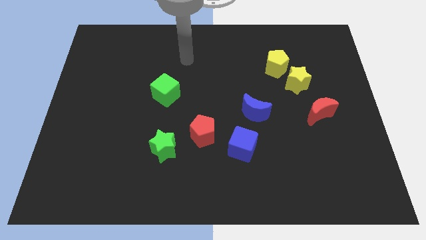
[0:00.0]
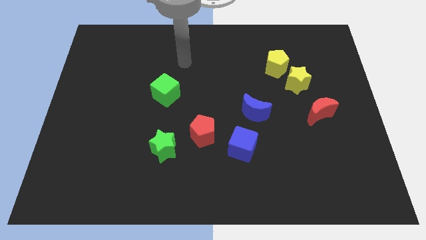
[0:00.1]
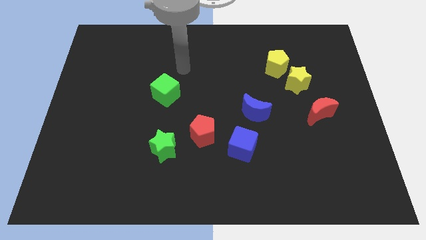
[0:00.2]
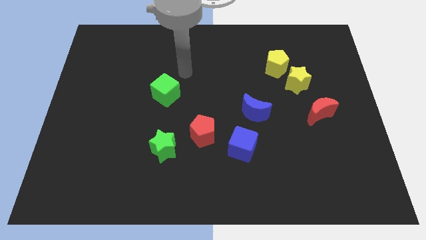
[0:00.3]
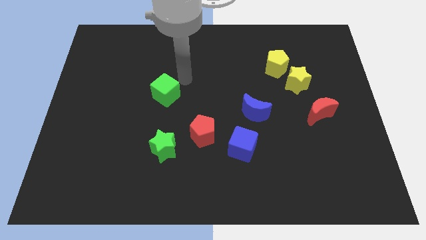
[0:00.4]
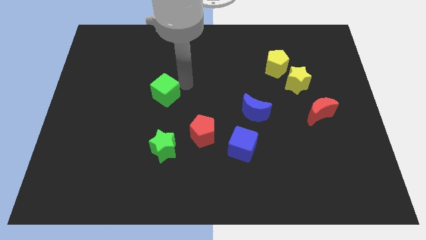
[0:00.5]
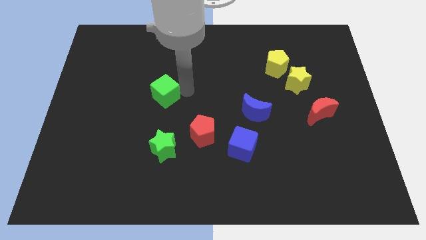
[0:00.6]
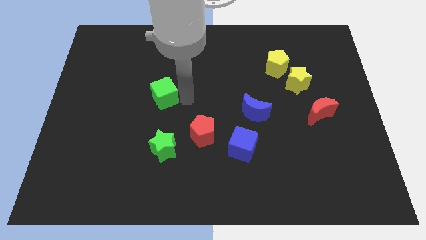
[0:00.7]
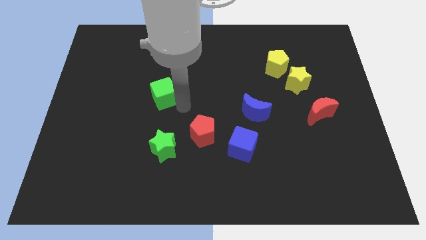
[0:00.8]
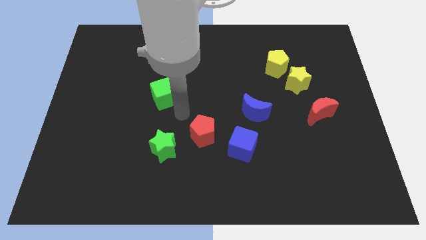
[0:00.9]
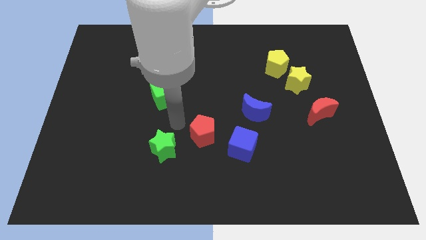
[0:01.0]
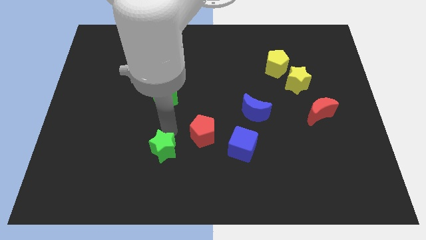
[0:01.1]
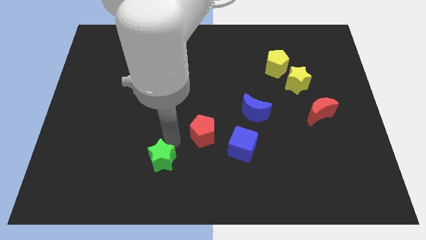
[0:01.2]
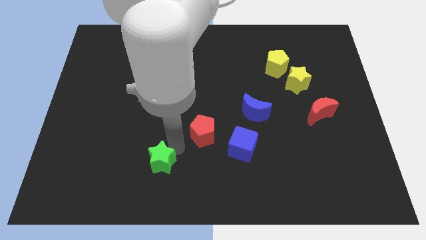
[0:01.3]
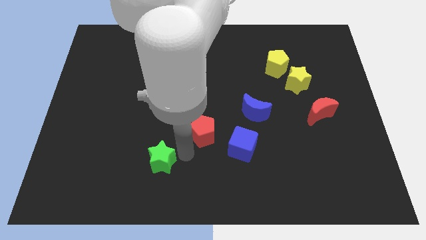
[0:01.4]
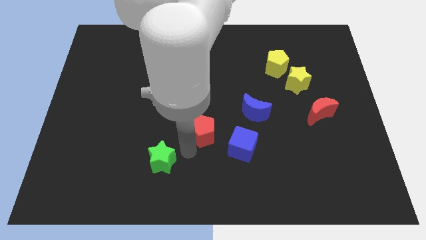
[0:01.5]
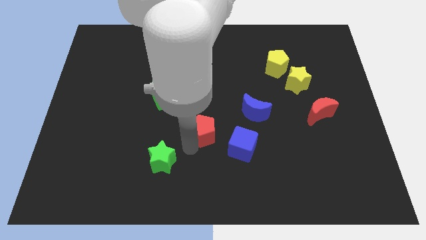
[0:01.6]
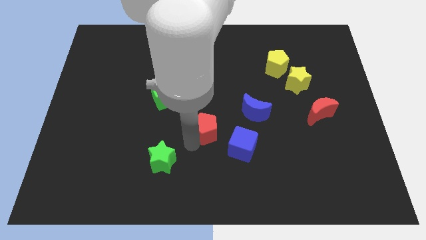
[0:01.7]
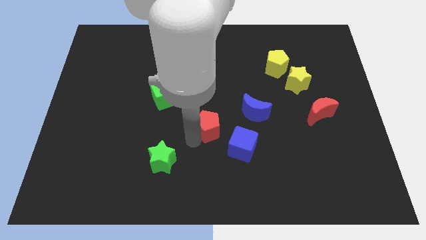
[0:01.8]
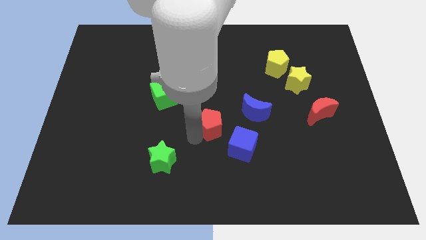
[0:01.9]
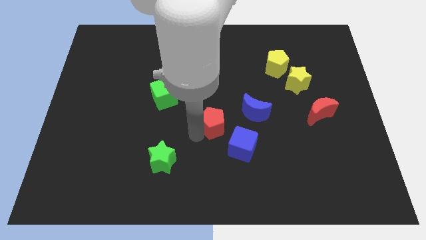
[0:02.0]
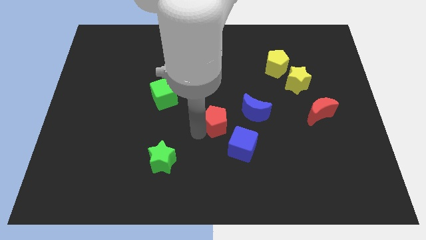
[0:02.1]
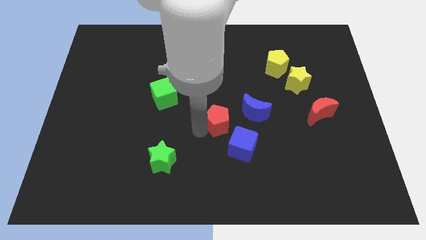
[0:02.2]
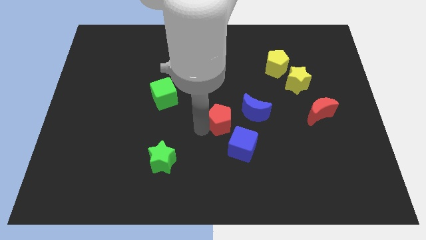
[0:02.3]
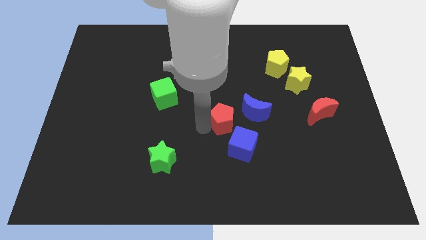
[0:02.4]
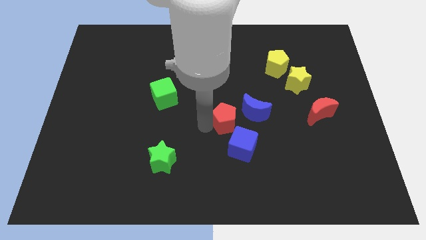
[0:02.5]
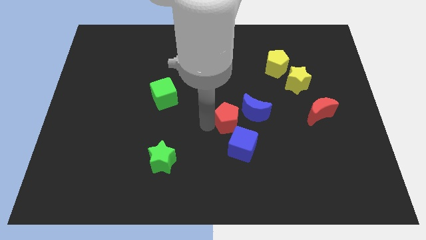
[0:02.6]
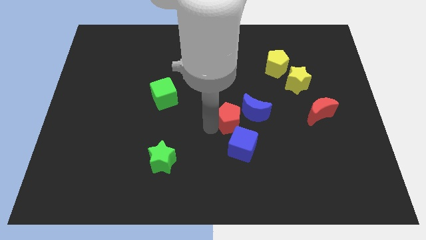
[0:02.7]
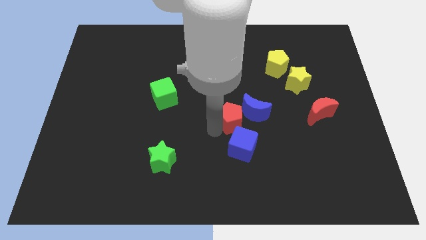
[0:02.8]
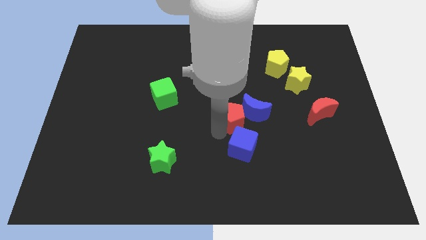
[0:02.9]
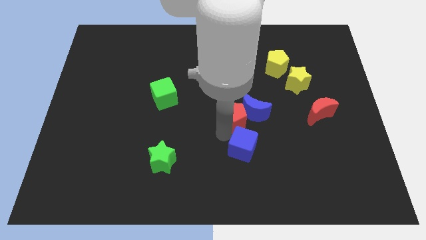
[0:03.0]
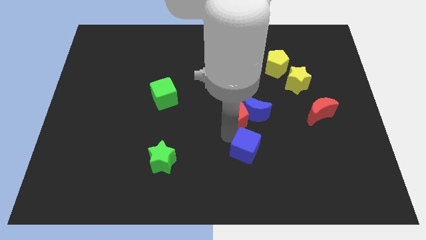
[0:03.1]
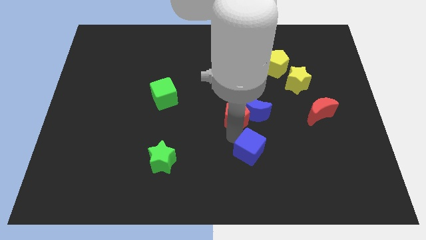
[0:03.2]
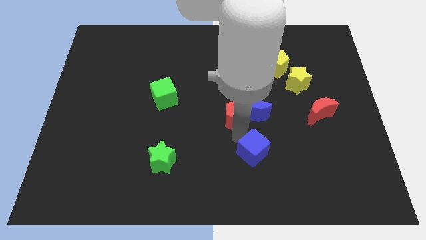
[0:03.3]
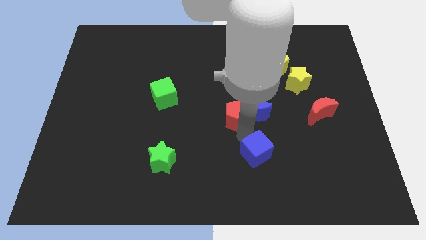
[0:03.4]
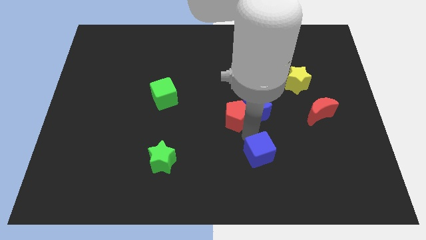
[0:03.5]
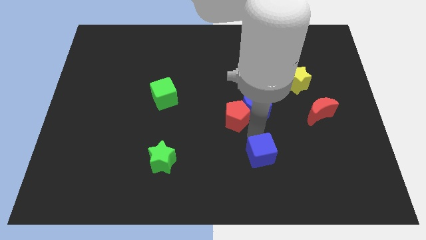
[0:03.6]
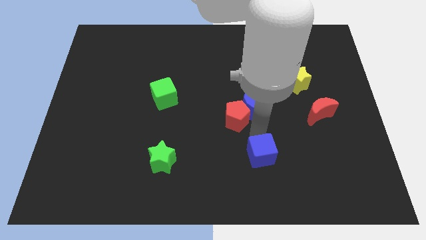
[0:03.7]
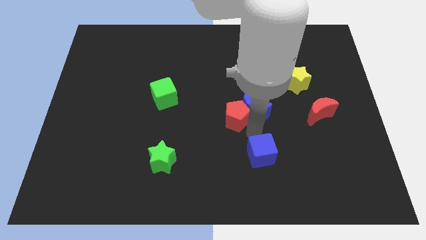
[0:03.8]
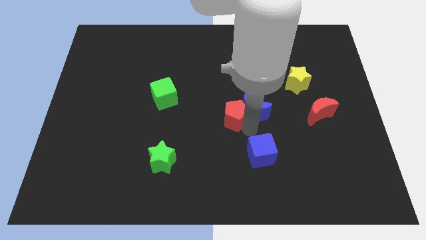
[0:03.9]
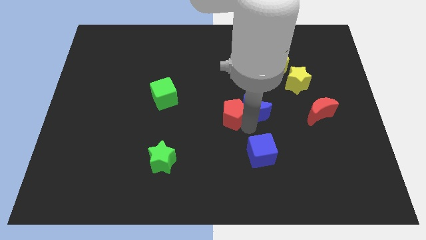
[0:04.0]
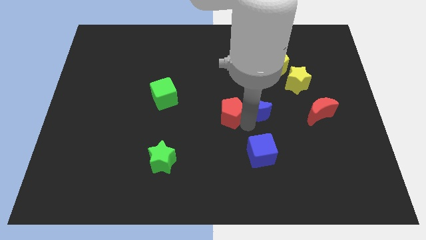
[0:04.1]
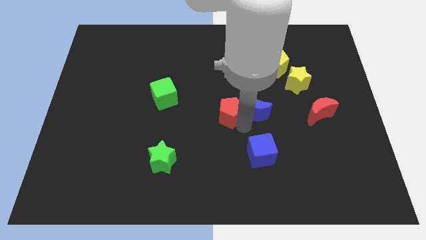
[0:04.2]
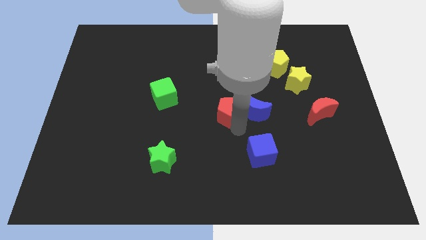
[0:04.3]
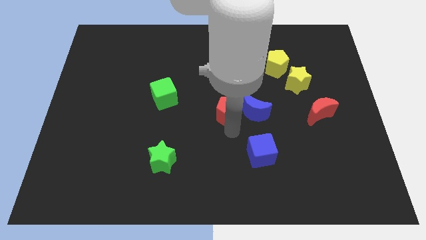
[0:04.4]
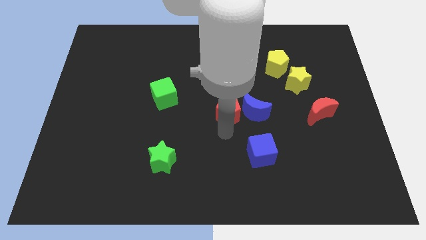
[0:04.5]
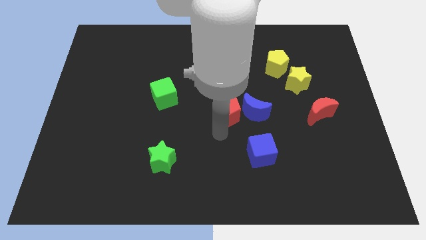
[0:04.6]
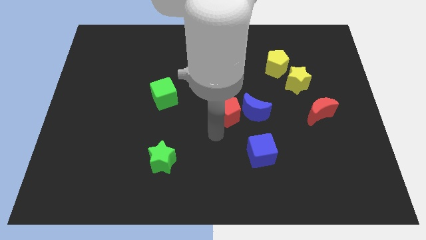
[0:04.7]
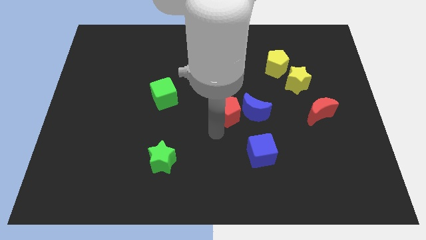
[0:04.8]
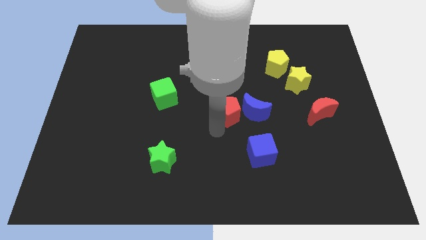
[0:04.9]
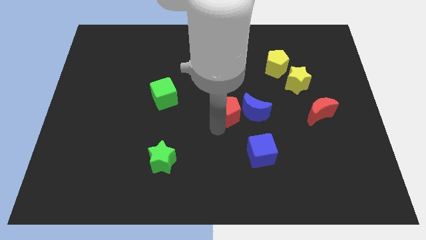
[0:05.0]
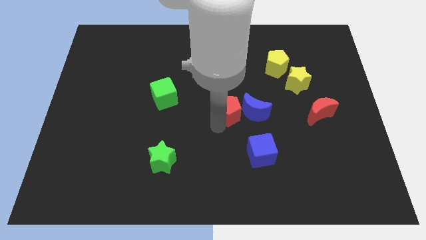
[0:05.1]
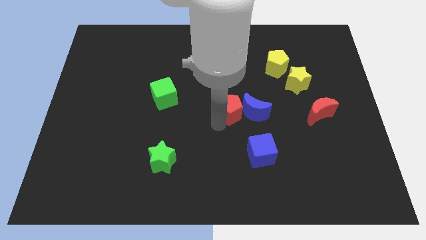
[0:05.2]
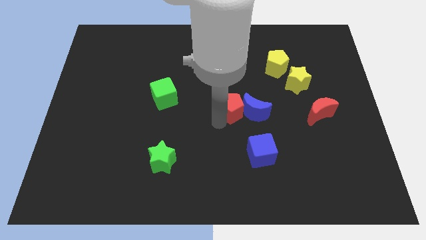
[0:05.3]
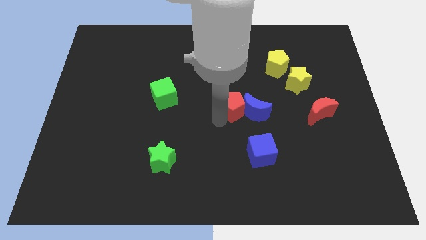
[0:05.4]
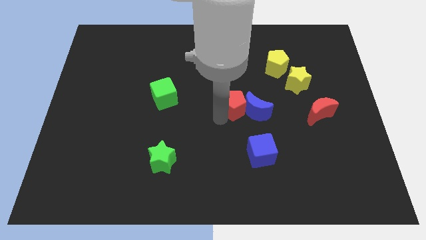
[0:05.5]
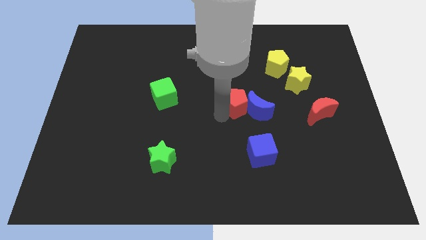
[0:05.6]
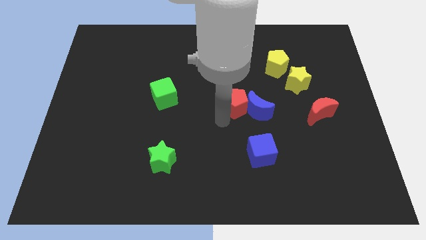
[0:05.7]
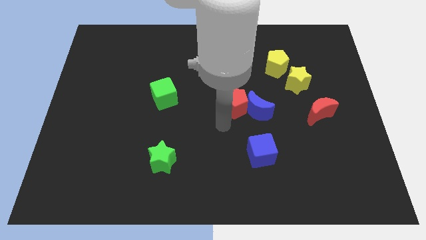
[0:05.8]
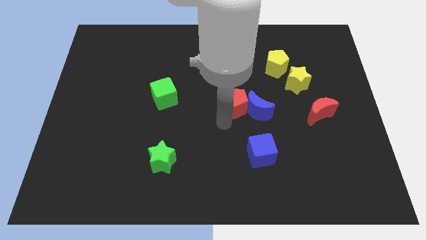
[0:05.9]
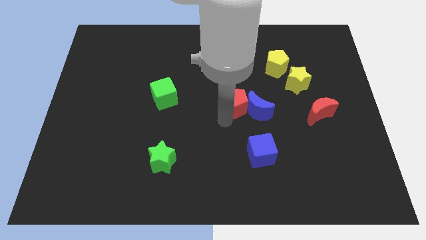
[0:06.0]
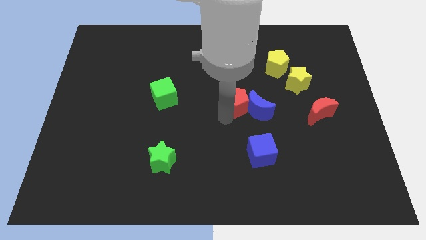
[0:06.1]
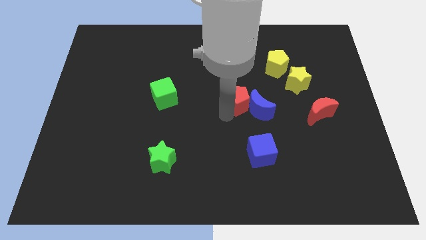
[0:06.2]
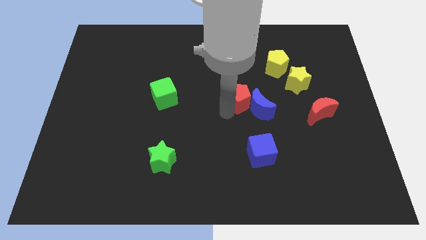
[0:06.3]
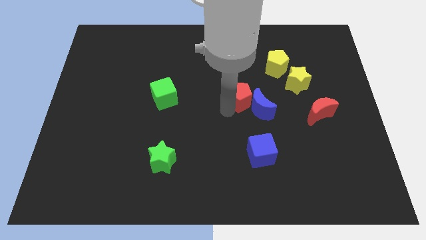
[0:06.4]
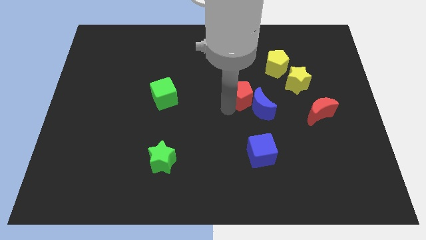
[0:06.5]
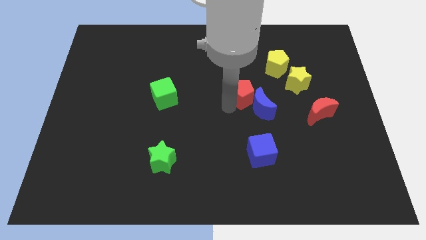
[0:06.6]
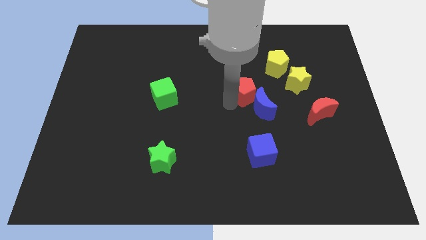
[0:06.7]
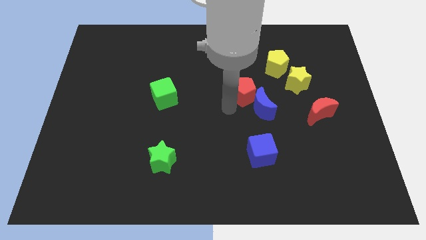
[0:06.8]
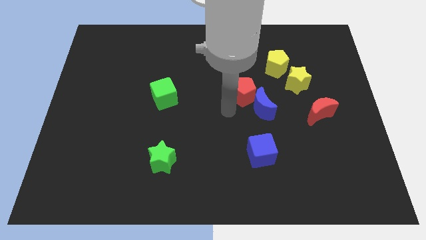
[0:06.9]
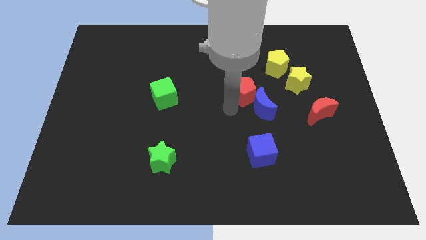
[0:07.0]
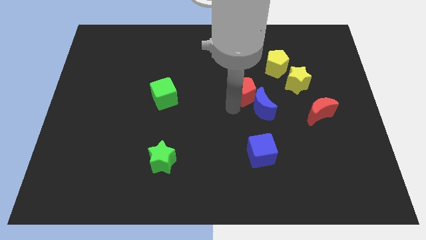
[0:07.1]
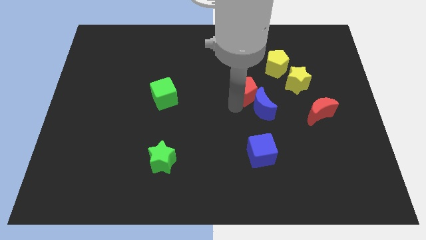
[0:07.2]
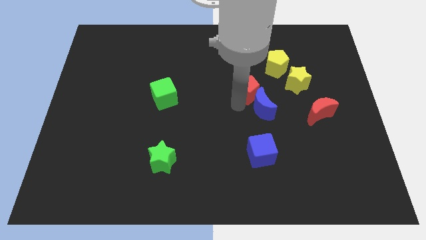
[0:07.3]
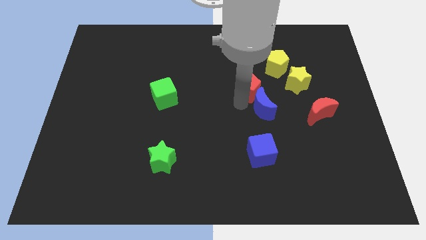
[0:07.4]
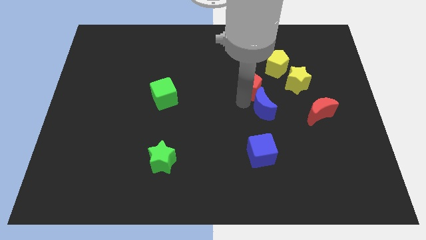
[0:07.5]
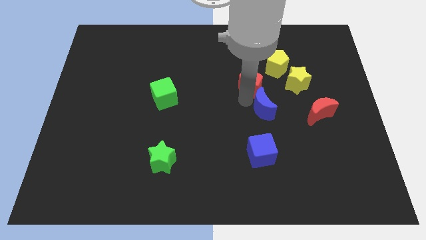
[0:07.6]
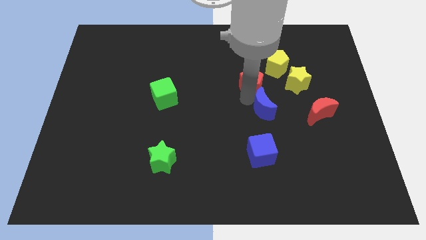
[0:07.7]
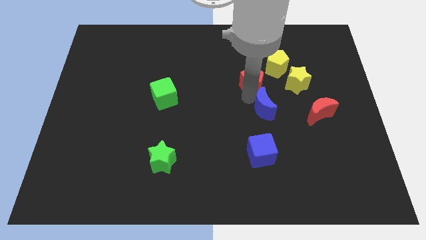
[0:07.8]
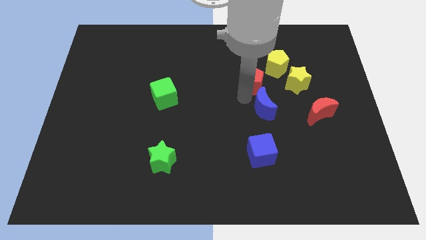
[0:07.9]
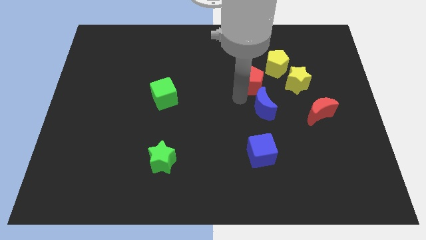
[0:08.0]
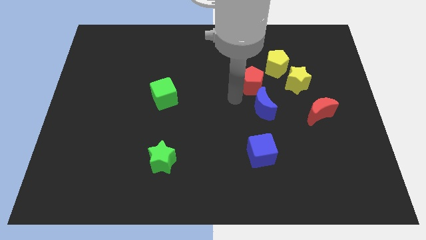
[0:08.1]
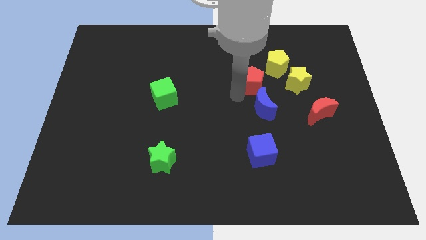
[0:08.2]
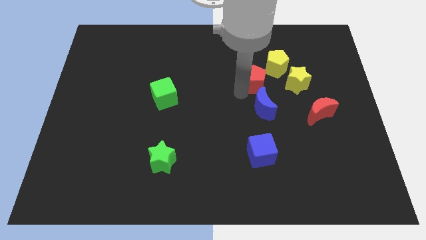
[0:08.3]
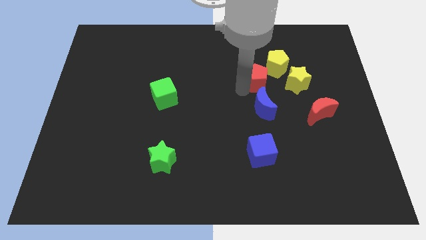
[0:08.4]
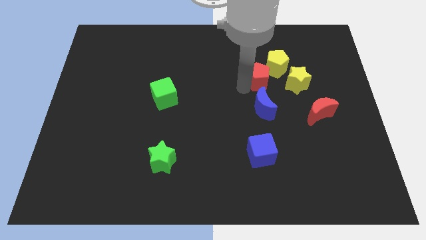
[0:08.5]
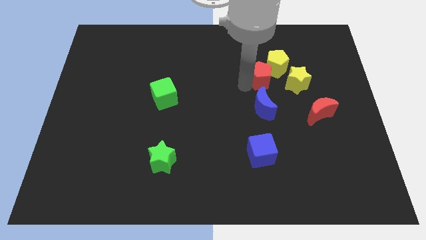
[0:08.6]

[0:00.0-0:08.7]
push the red pentagon next to the yellow pentagon
